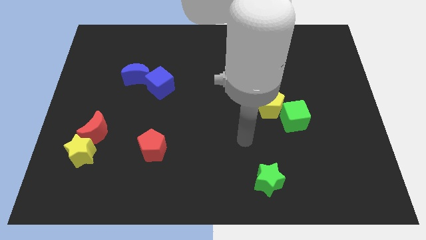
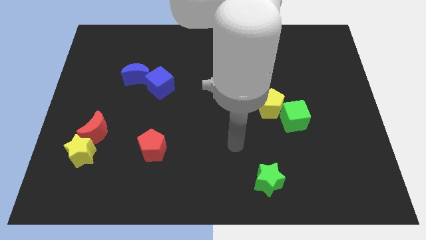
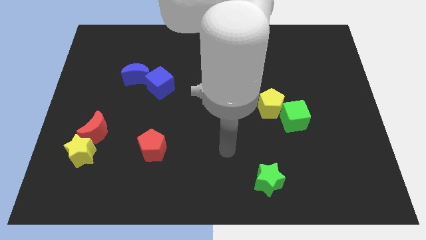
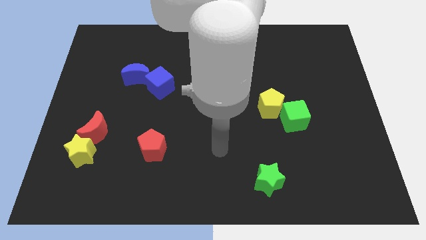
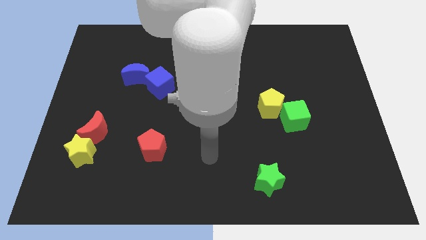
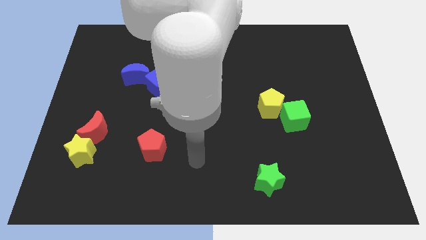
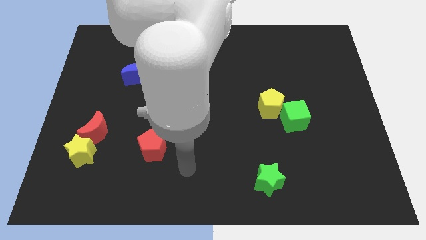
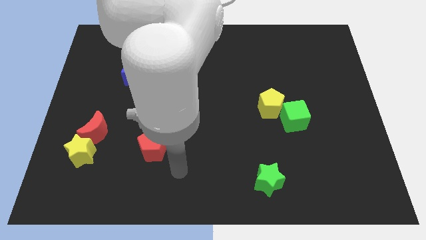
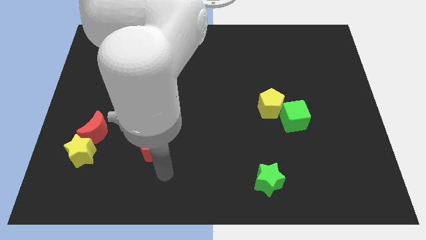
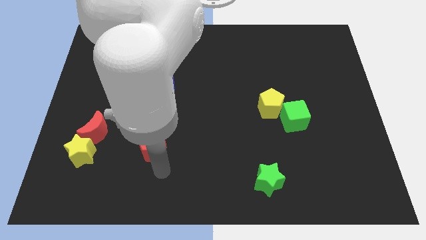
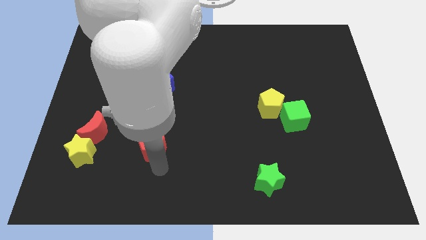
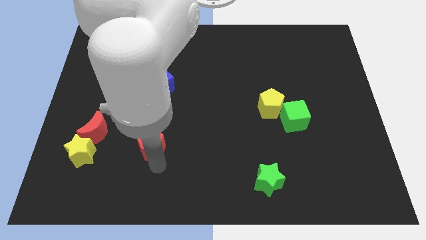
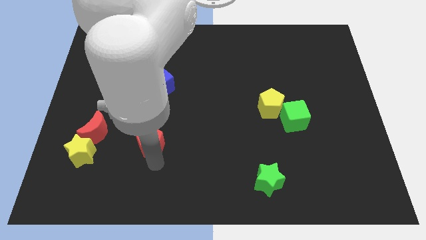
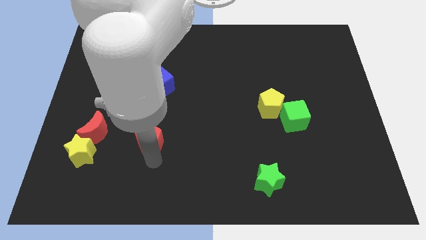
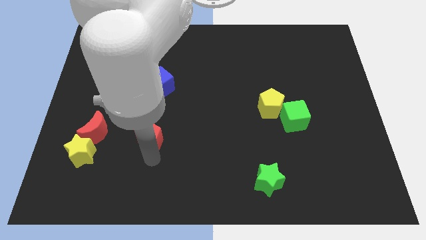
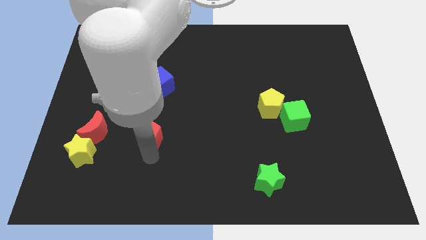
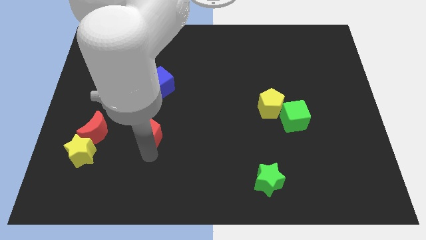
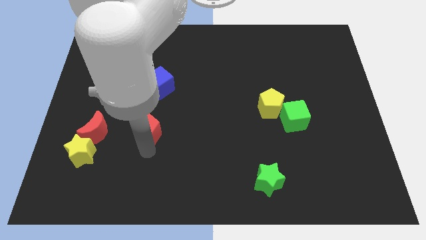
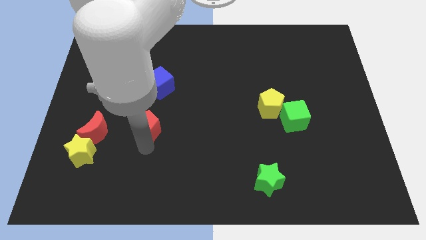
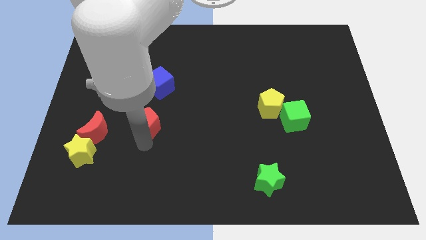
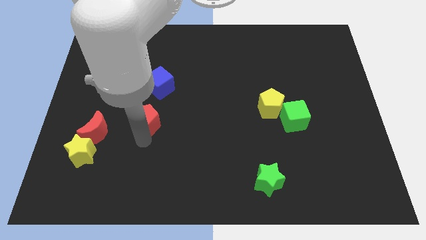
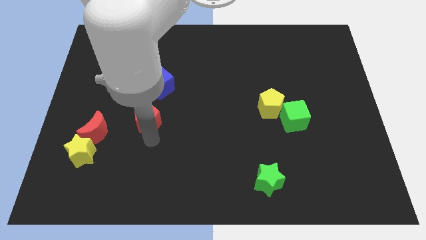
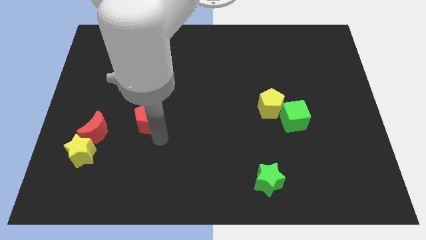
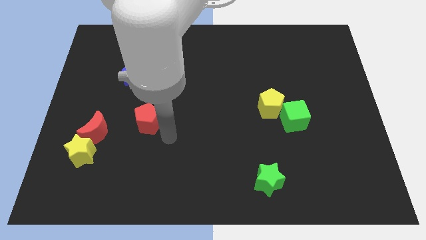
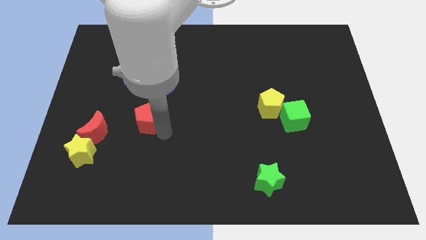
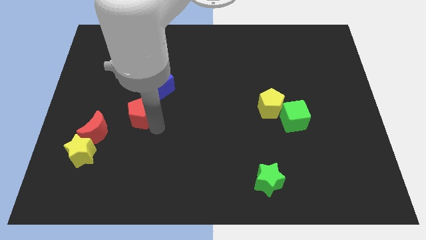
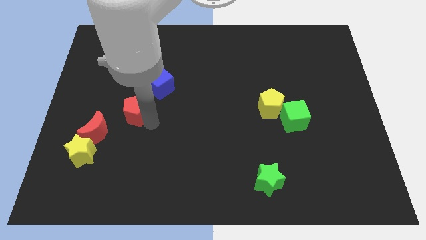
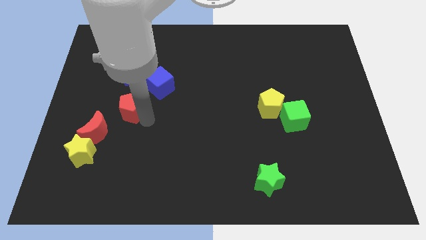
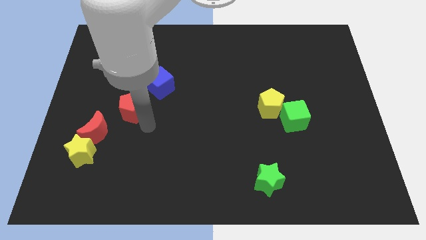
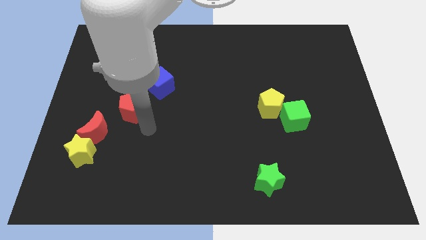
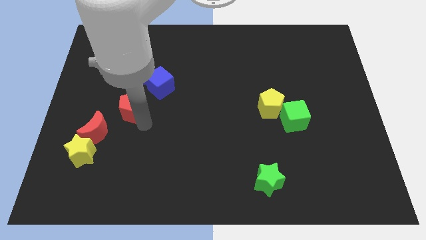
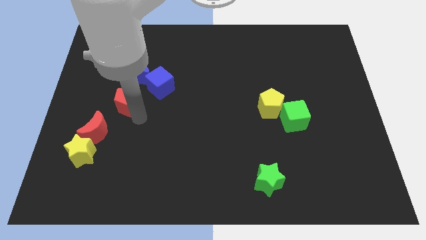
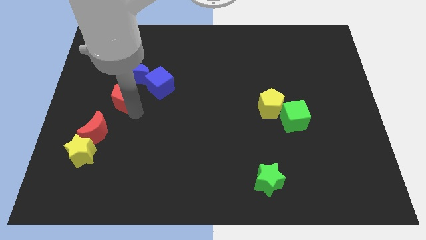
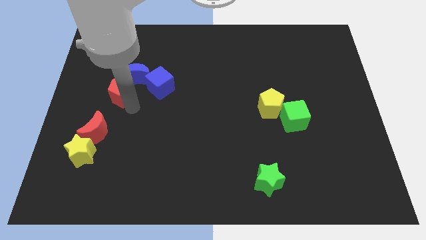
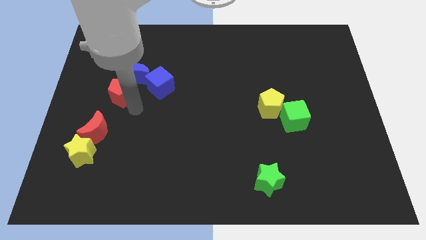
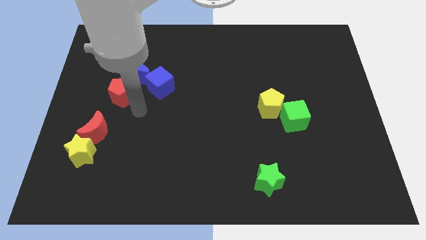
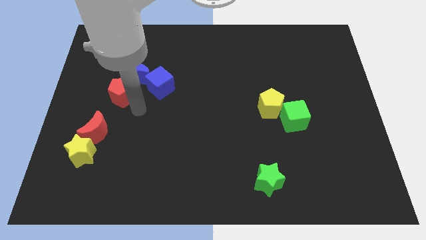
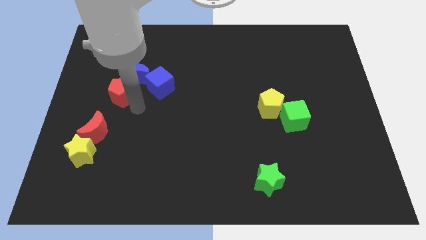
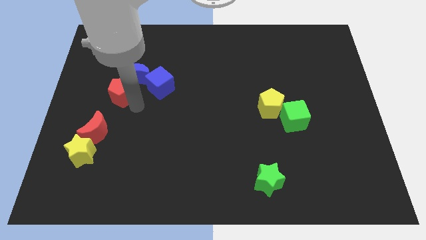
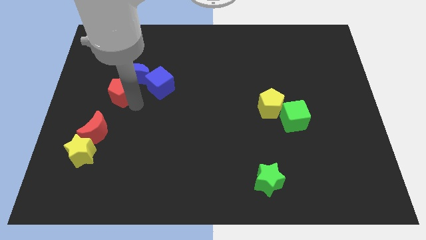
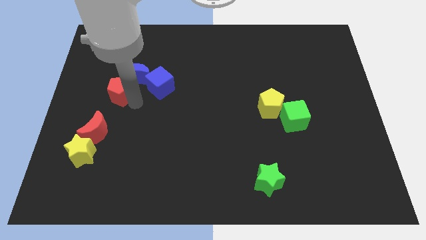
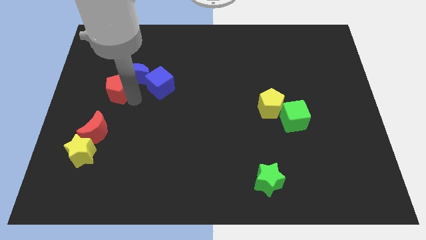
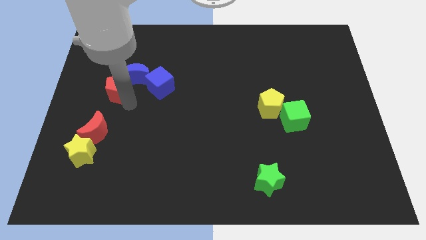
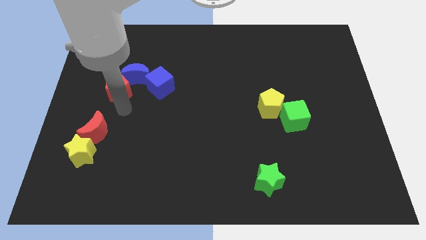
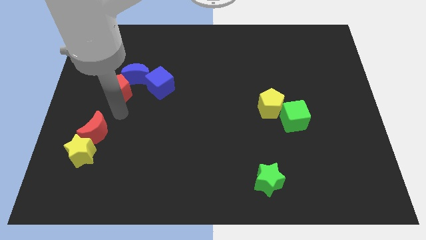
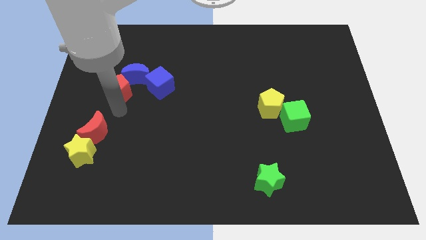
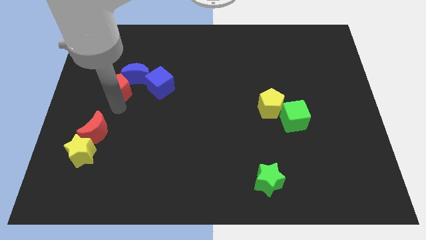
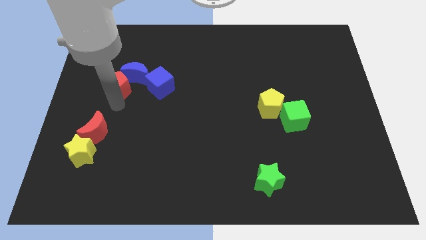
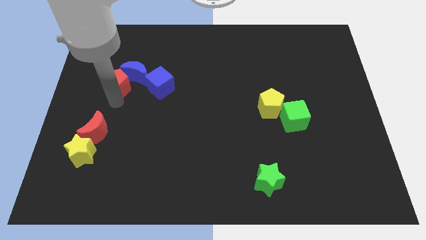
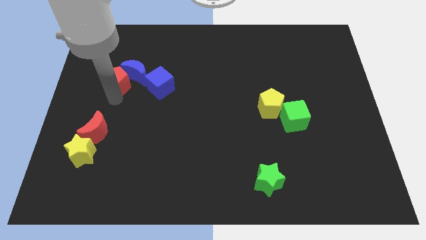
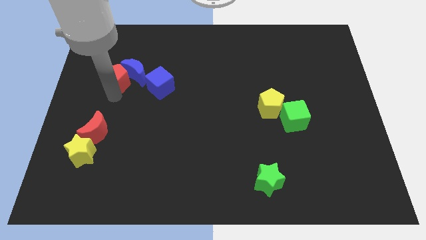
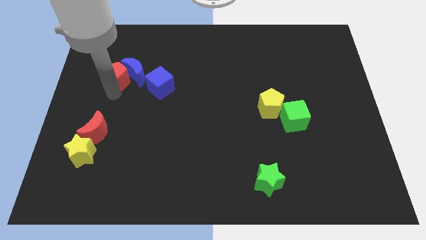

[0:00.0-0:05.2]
move the red pentagon to the top left of the blue moon

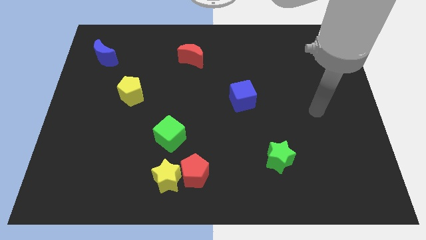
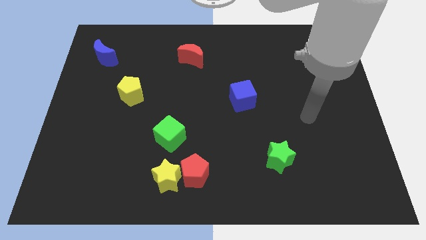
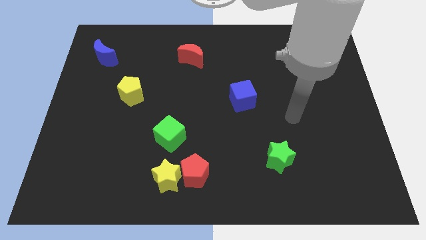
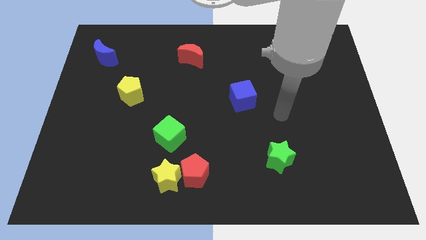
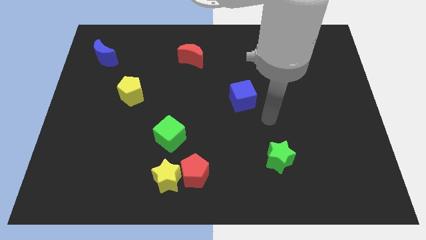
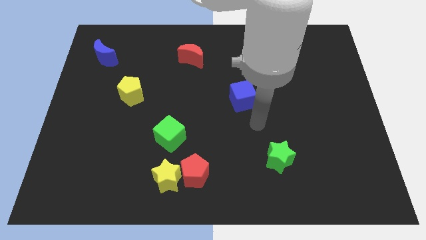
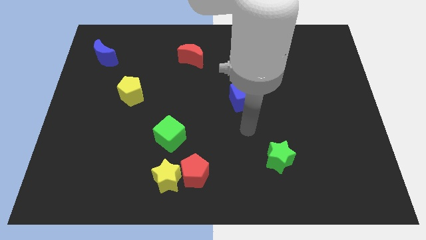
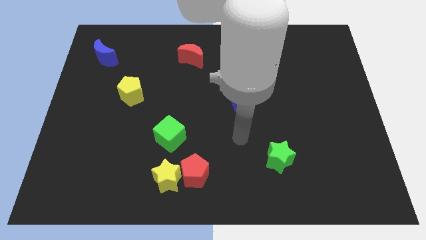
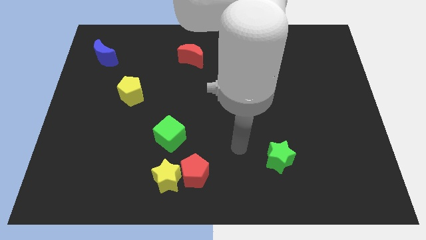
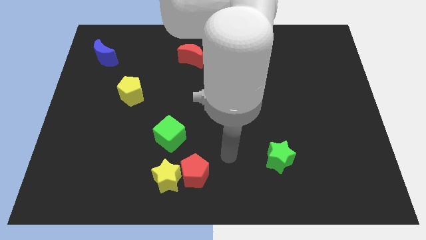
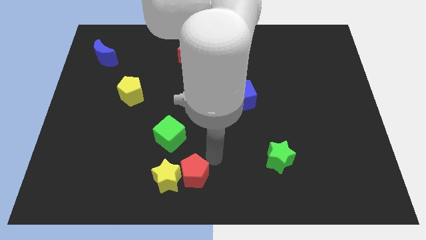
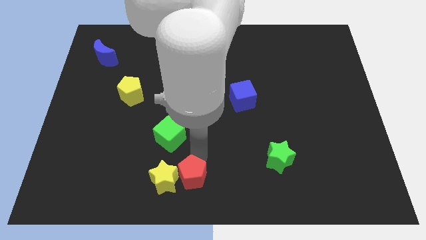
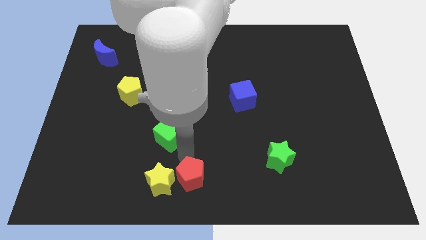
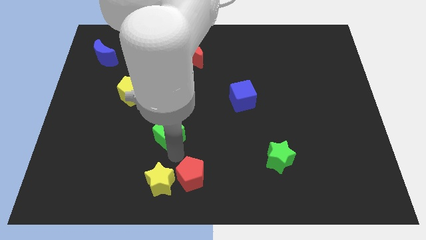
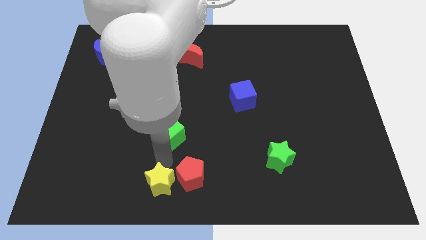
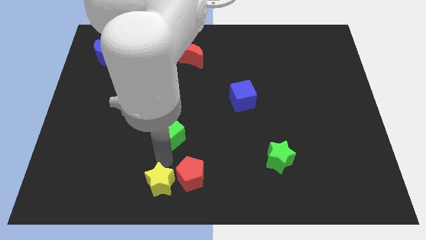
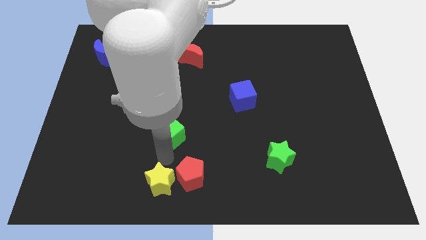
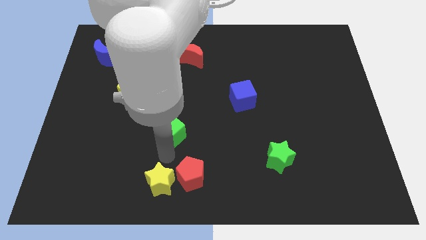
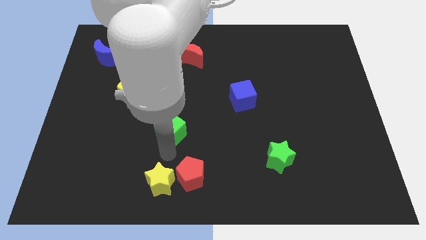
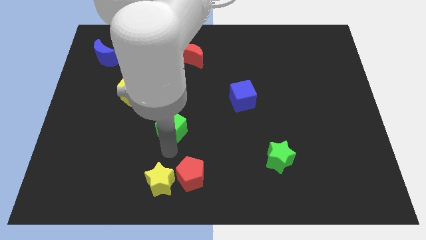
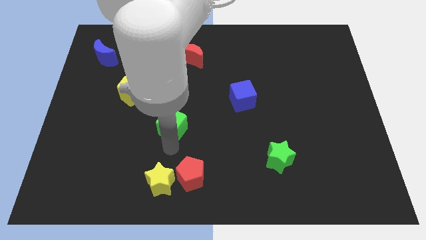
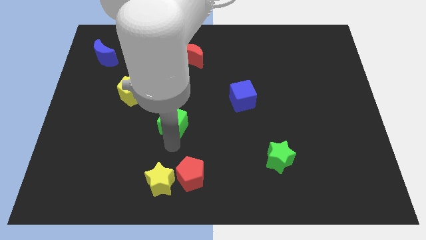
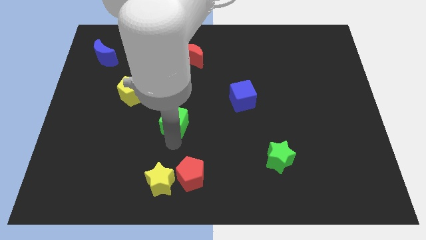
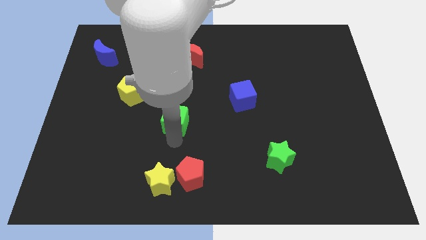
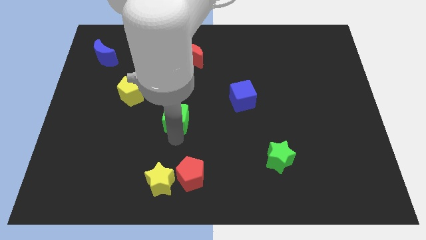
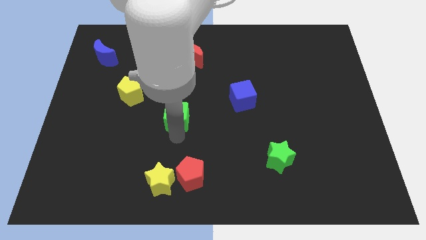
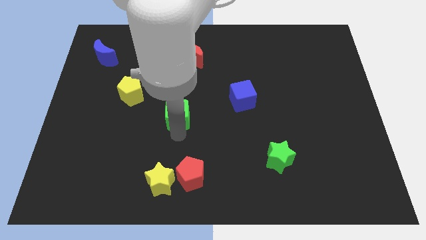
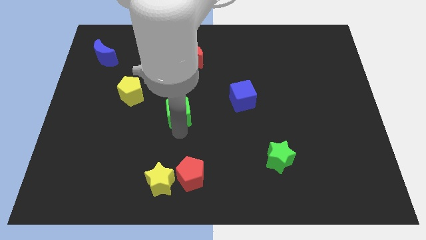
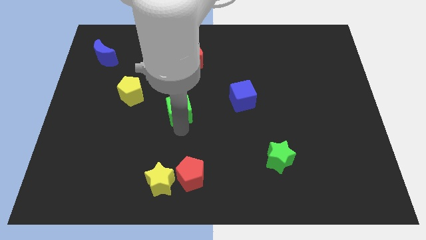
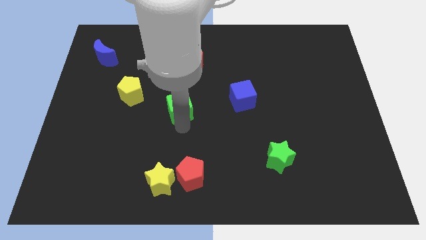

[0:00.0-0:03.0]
put the green cube to the right of the yellow pentagon
